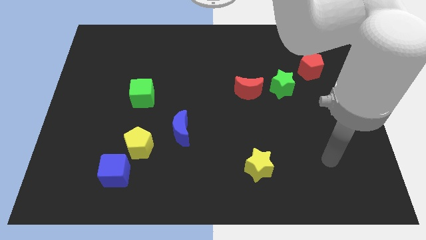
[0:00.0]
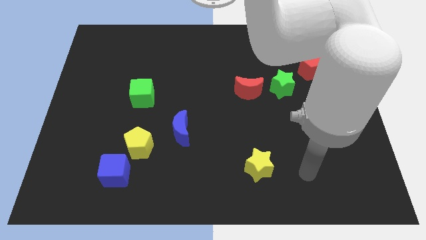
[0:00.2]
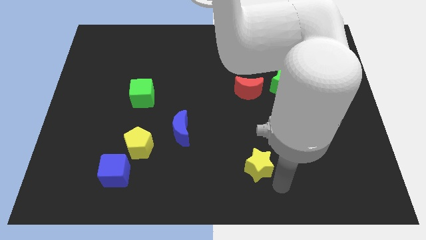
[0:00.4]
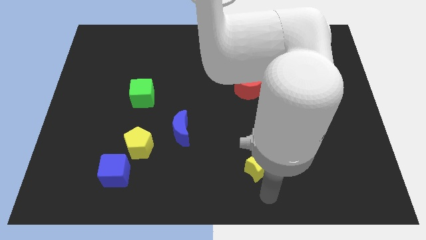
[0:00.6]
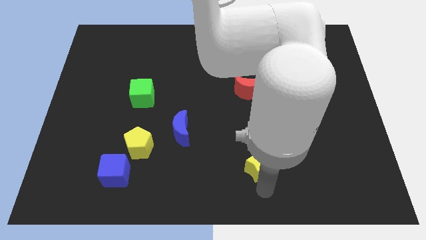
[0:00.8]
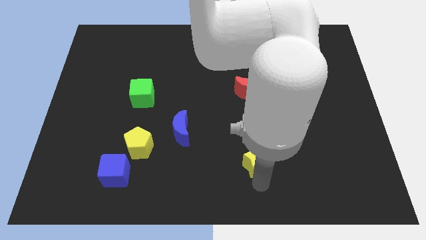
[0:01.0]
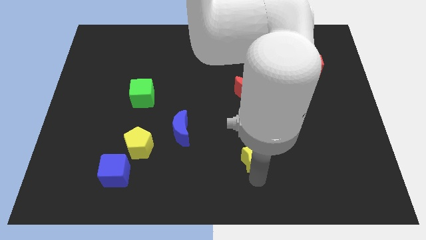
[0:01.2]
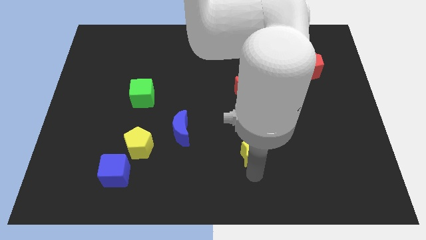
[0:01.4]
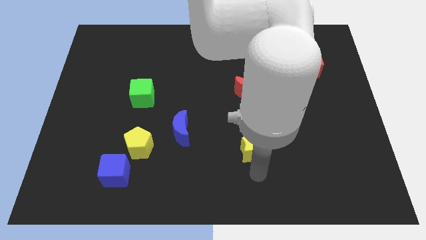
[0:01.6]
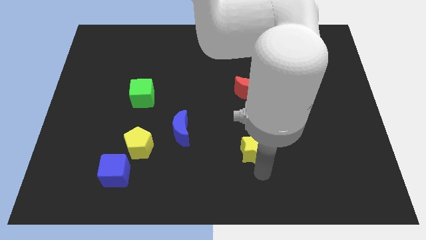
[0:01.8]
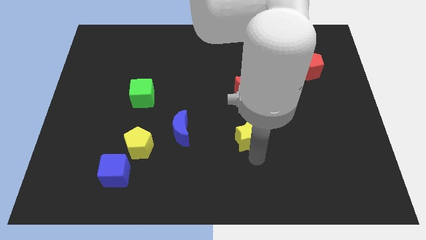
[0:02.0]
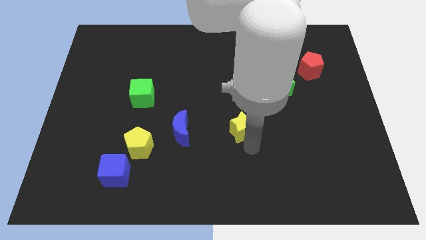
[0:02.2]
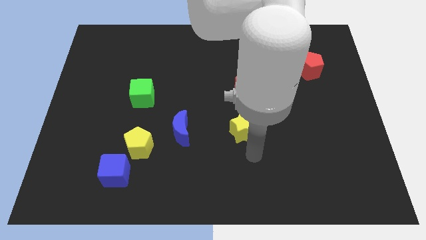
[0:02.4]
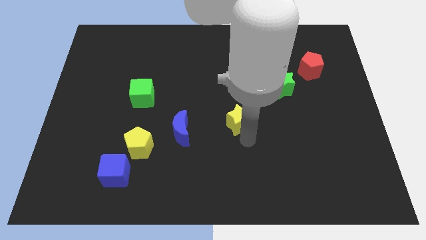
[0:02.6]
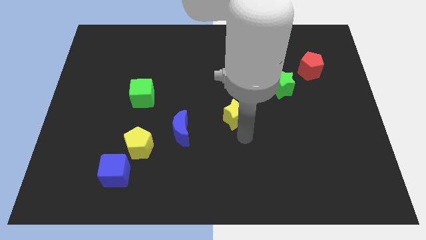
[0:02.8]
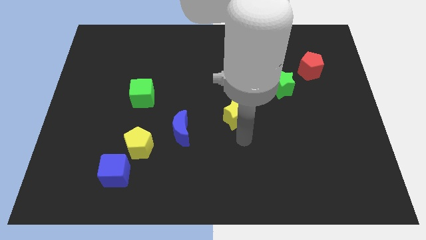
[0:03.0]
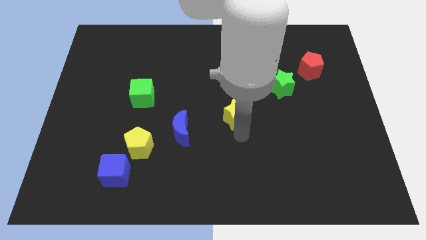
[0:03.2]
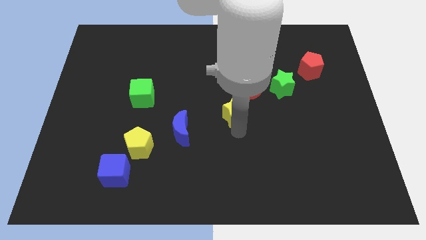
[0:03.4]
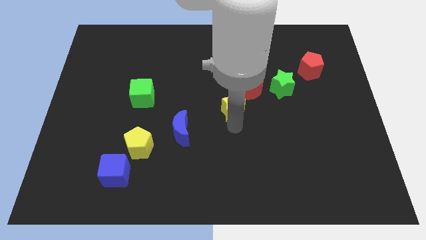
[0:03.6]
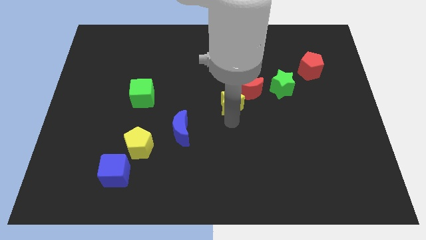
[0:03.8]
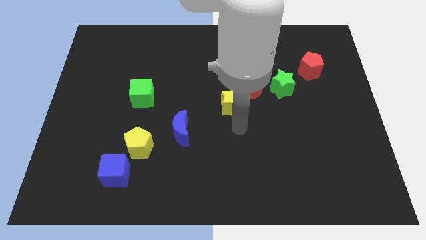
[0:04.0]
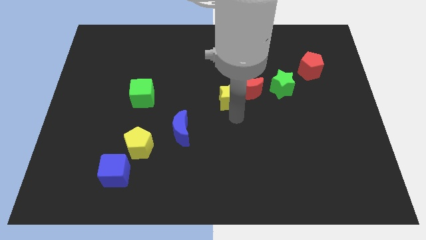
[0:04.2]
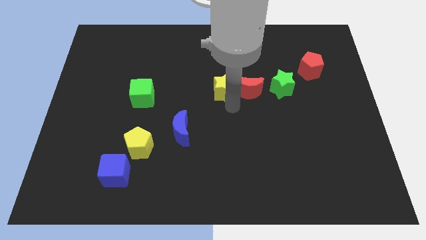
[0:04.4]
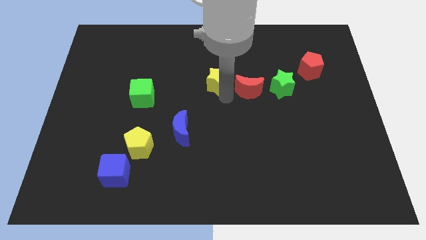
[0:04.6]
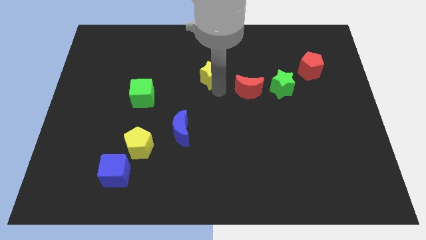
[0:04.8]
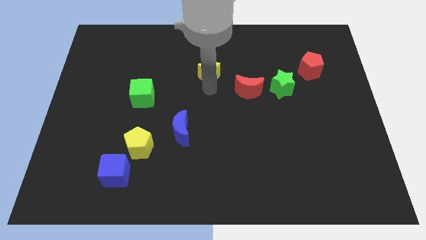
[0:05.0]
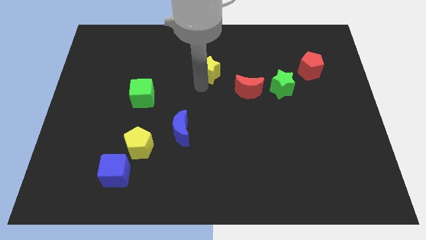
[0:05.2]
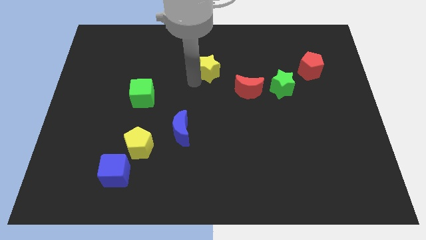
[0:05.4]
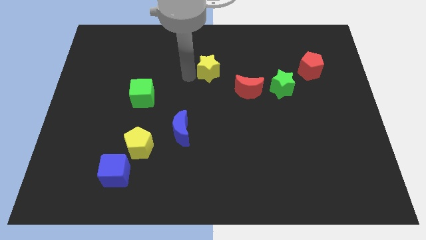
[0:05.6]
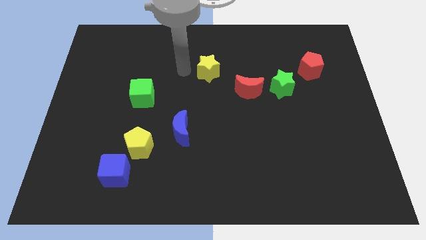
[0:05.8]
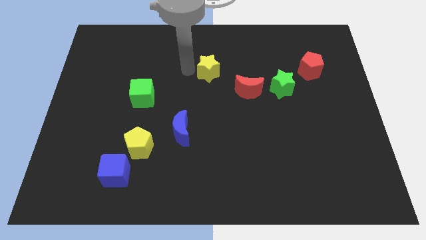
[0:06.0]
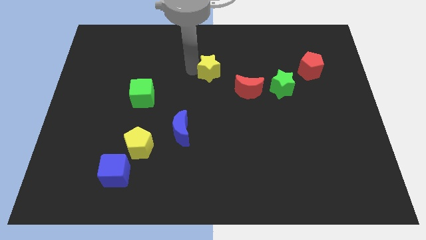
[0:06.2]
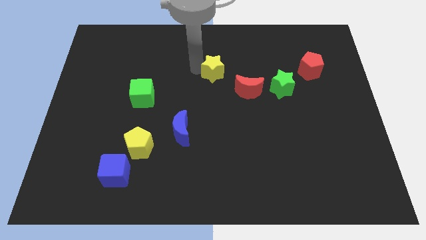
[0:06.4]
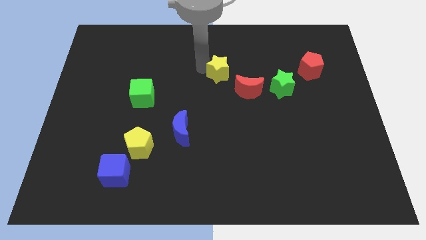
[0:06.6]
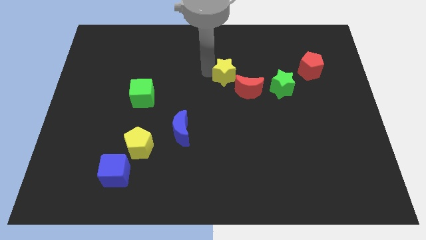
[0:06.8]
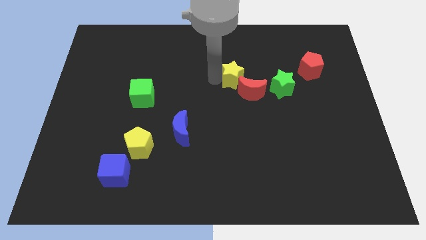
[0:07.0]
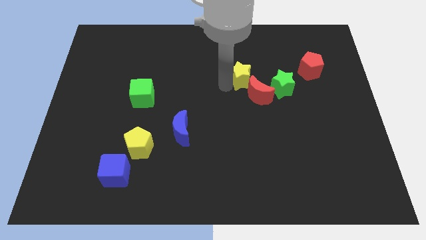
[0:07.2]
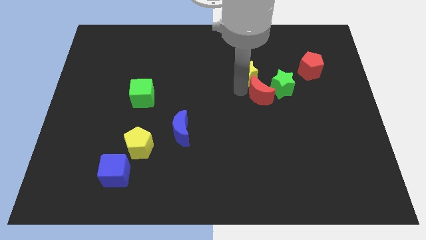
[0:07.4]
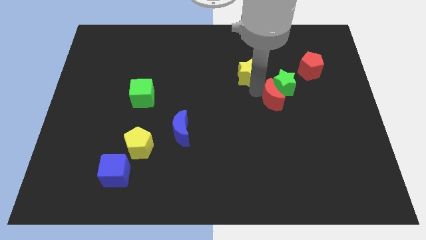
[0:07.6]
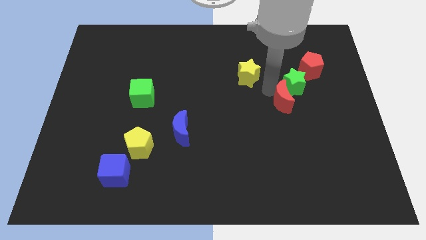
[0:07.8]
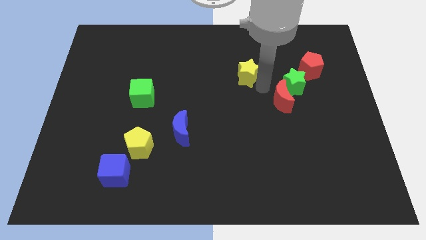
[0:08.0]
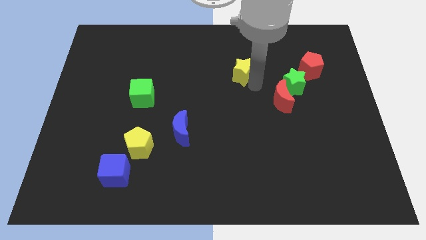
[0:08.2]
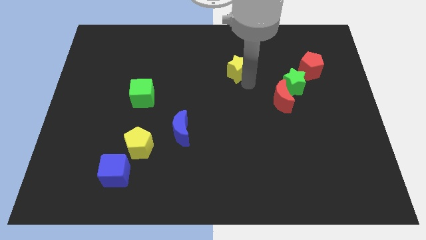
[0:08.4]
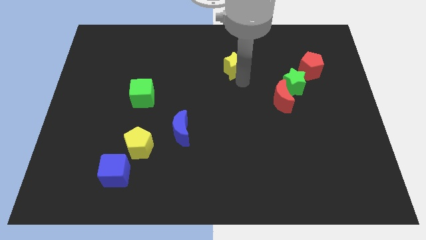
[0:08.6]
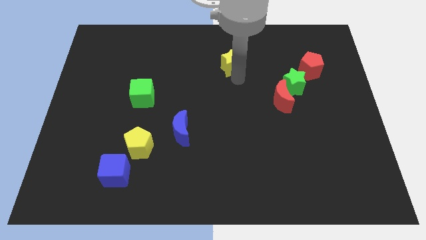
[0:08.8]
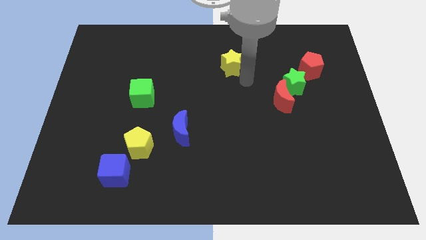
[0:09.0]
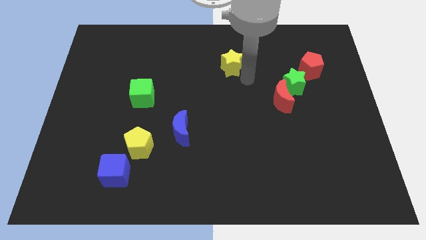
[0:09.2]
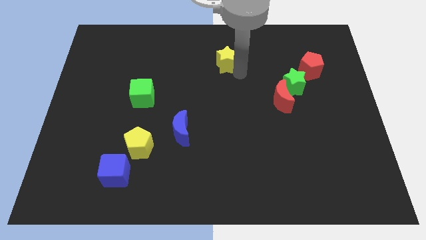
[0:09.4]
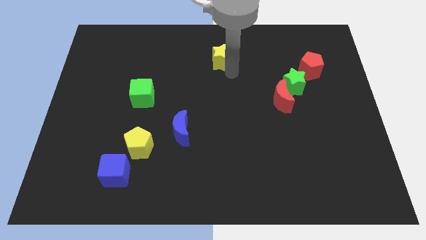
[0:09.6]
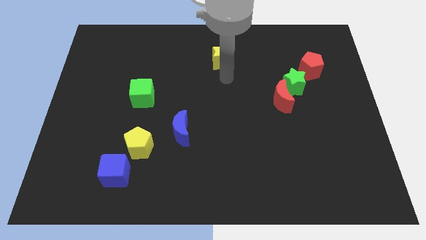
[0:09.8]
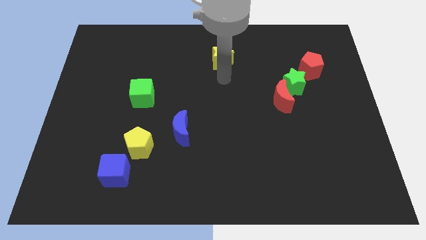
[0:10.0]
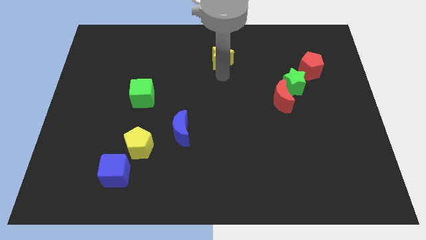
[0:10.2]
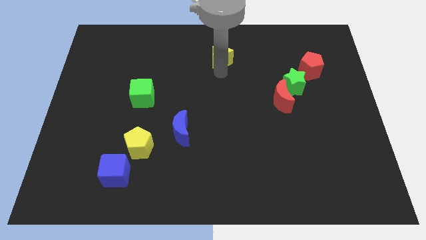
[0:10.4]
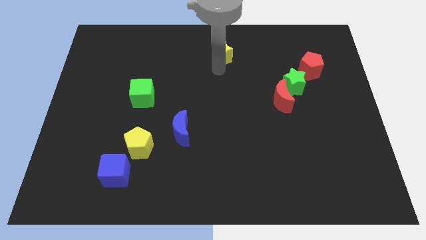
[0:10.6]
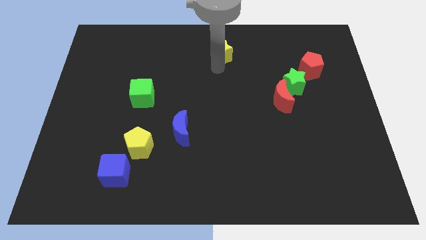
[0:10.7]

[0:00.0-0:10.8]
push the yellow star to the top side

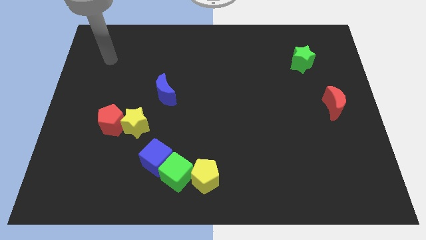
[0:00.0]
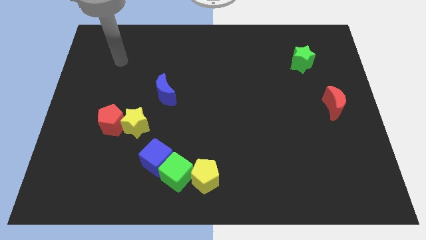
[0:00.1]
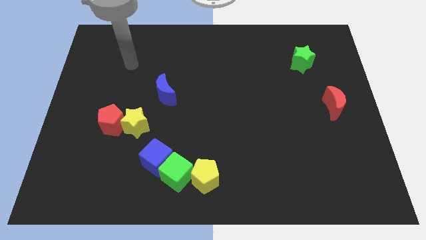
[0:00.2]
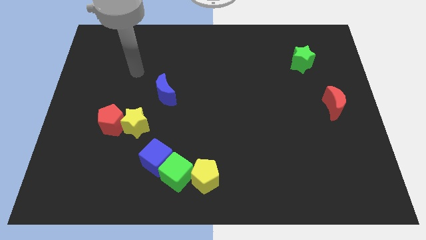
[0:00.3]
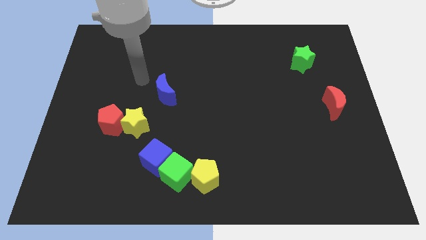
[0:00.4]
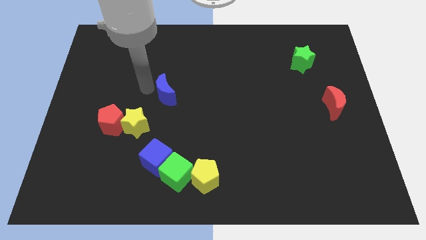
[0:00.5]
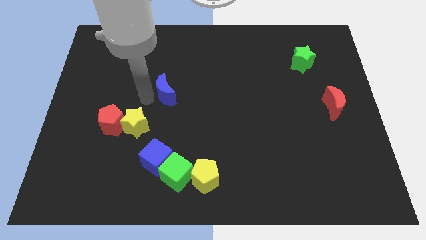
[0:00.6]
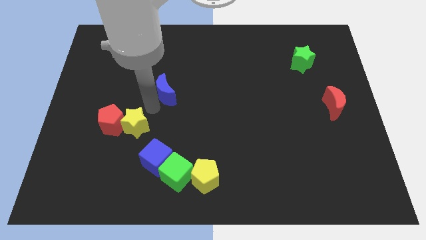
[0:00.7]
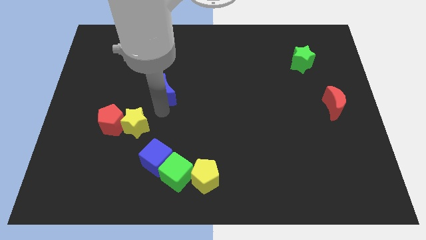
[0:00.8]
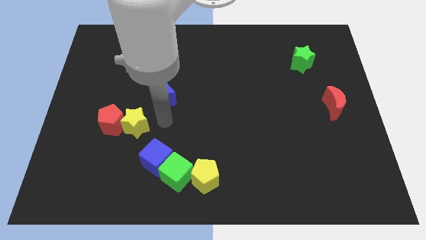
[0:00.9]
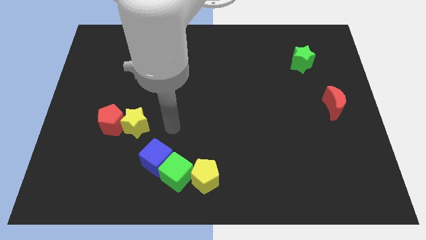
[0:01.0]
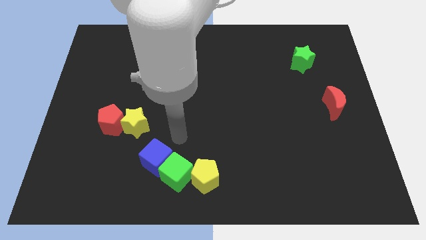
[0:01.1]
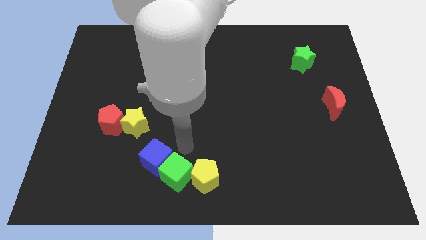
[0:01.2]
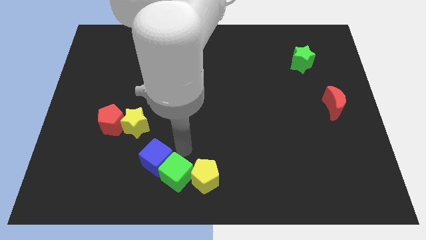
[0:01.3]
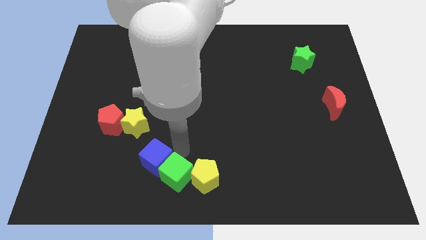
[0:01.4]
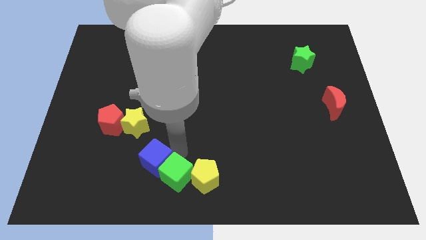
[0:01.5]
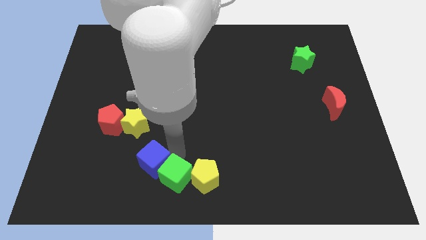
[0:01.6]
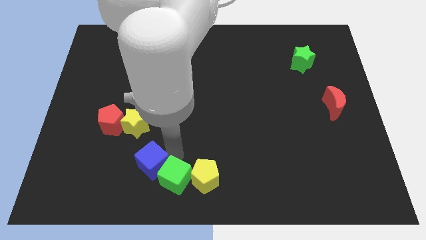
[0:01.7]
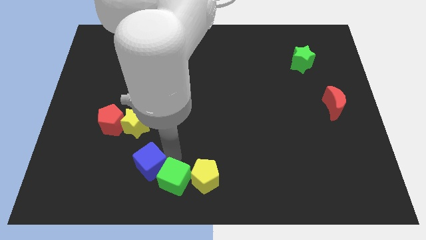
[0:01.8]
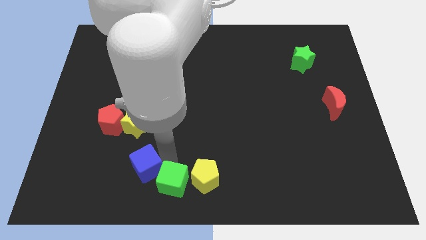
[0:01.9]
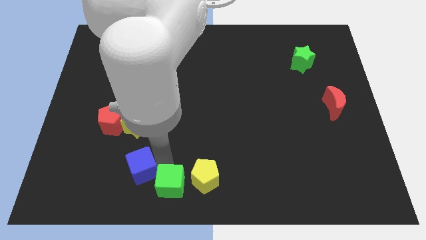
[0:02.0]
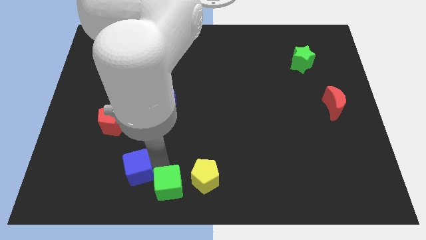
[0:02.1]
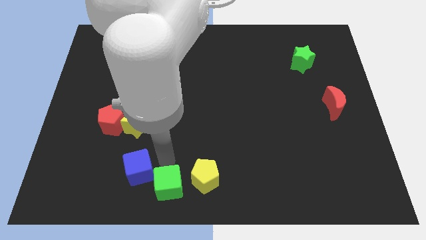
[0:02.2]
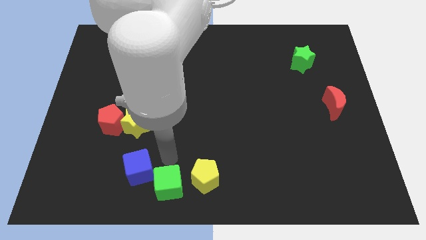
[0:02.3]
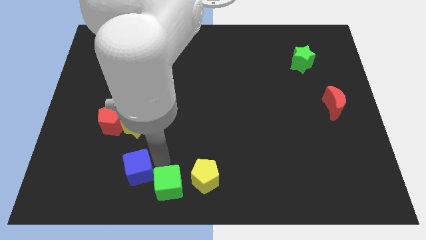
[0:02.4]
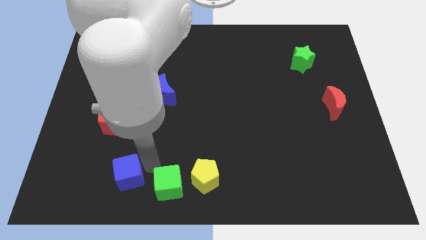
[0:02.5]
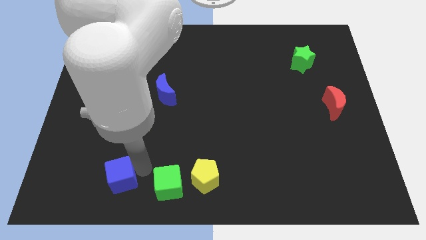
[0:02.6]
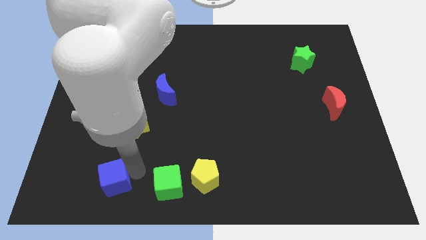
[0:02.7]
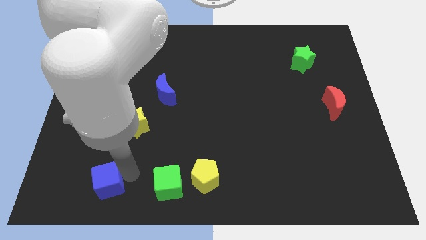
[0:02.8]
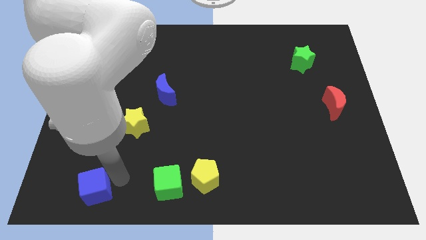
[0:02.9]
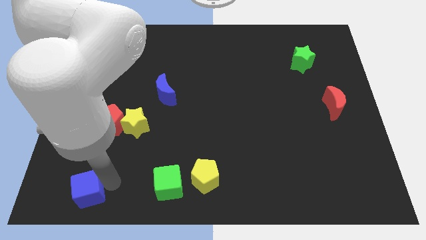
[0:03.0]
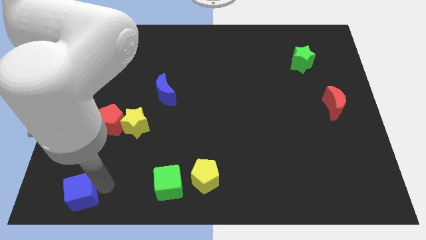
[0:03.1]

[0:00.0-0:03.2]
push the blue cube to the lower left corner
